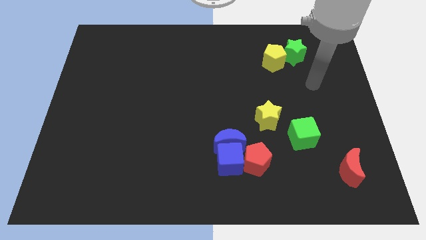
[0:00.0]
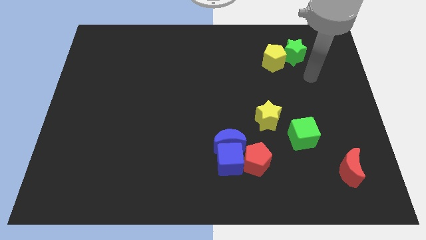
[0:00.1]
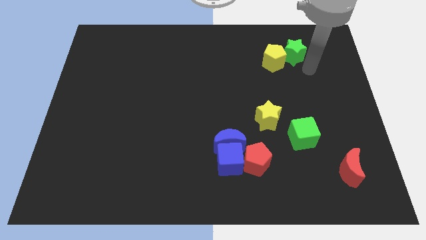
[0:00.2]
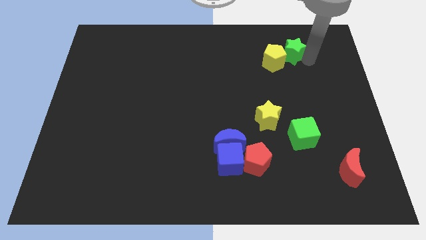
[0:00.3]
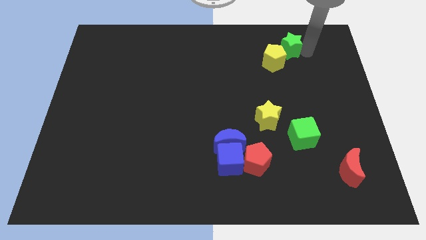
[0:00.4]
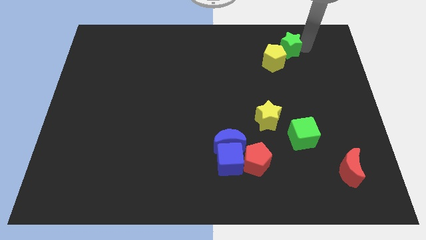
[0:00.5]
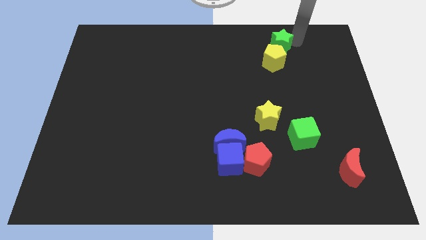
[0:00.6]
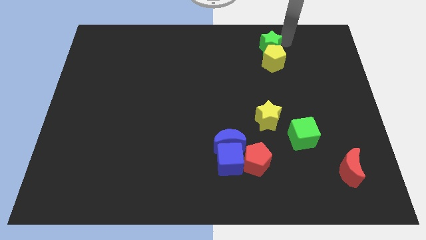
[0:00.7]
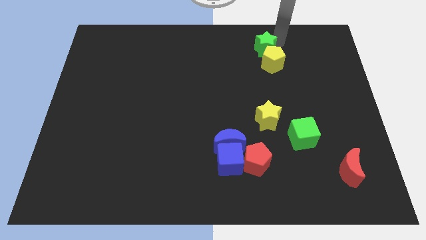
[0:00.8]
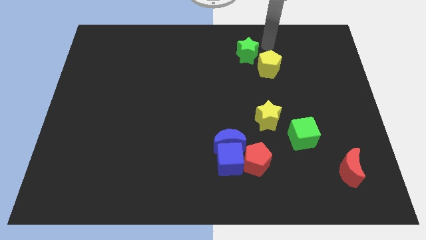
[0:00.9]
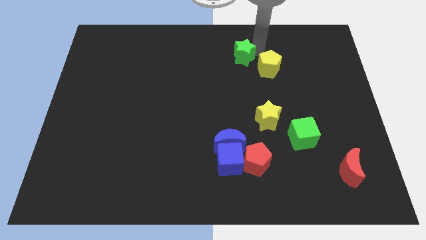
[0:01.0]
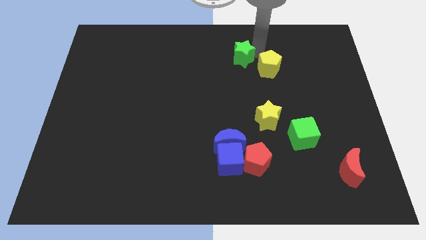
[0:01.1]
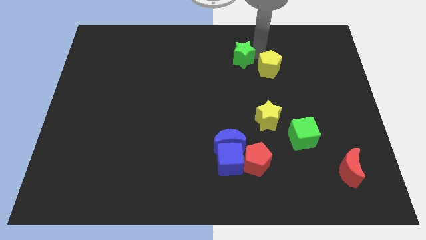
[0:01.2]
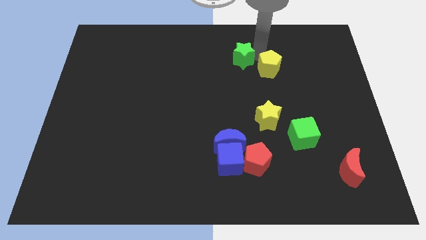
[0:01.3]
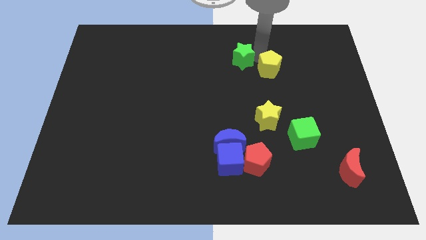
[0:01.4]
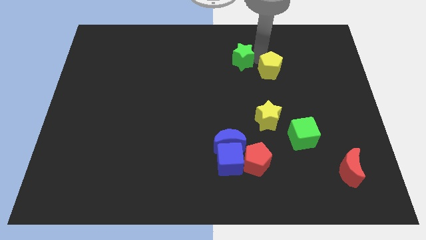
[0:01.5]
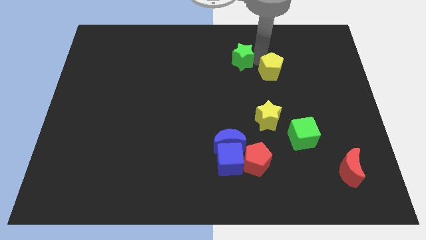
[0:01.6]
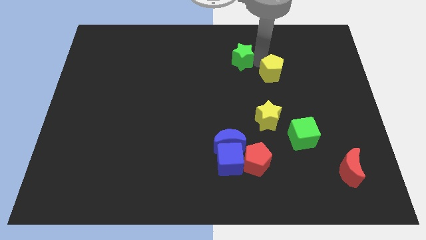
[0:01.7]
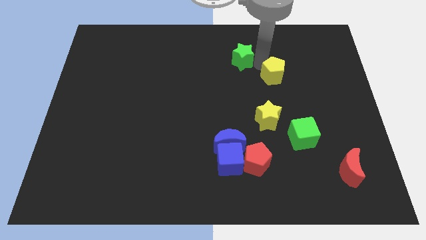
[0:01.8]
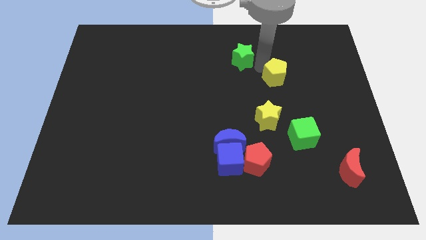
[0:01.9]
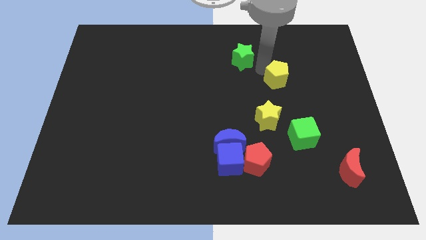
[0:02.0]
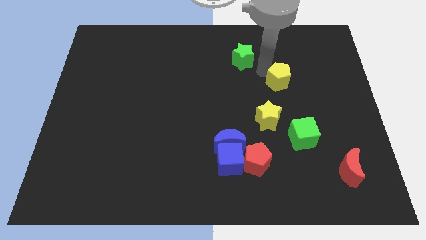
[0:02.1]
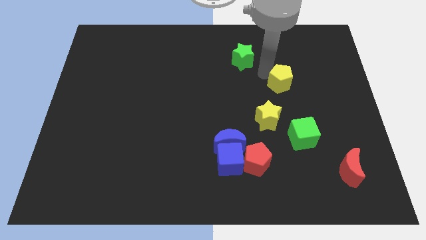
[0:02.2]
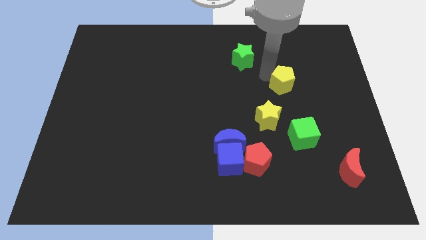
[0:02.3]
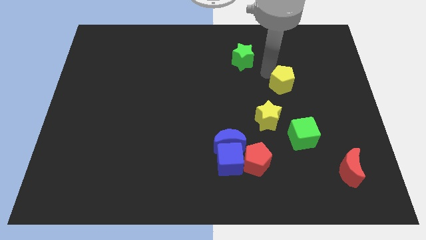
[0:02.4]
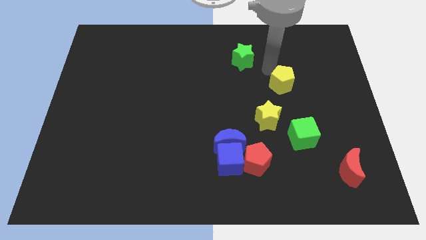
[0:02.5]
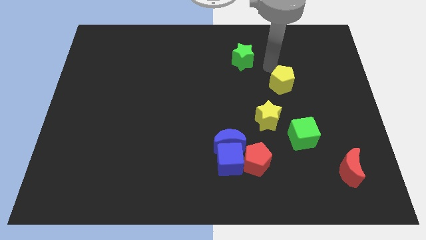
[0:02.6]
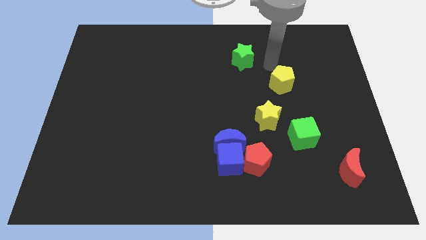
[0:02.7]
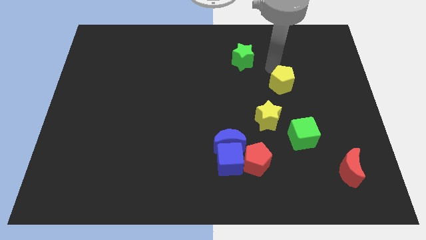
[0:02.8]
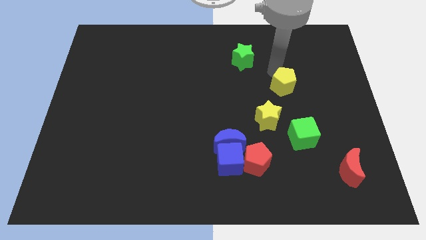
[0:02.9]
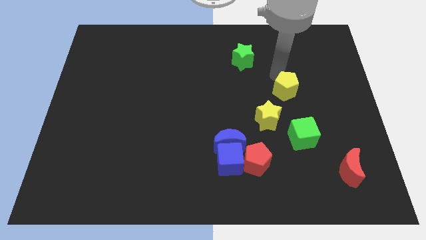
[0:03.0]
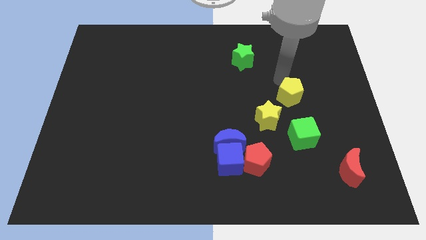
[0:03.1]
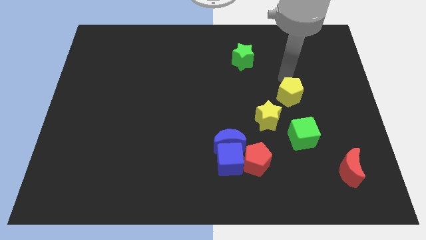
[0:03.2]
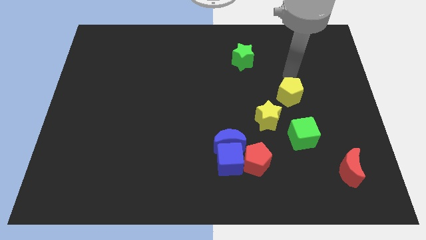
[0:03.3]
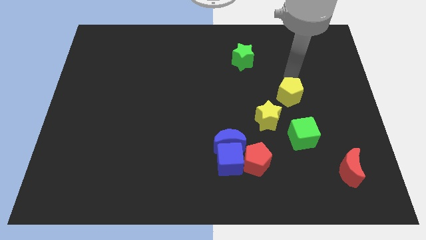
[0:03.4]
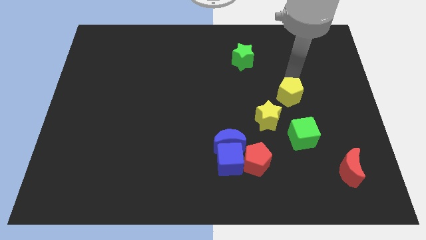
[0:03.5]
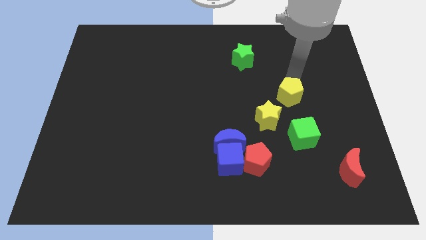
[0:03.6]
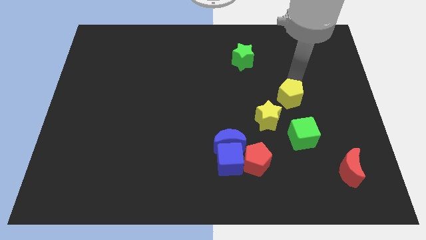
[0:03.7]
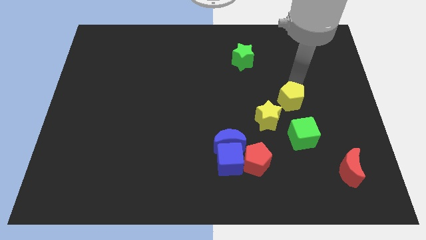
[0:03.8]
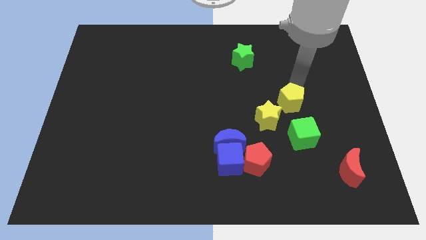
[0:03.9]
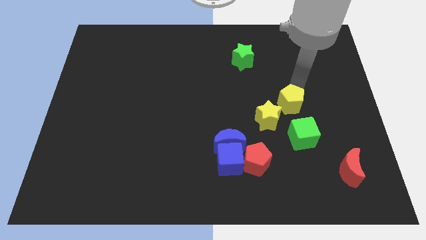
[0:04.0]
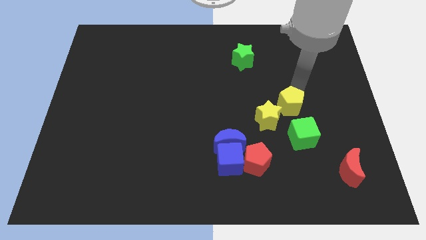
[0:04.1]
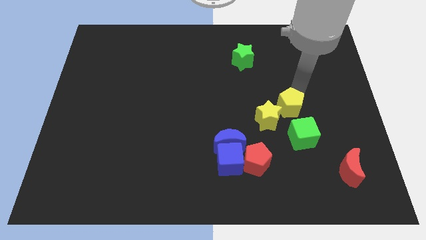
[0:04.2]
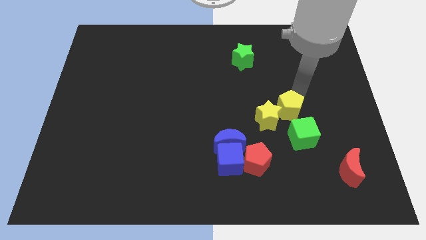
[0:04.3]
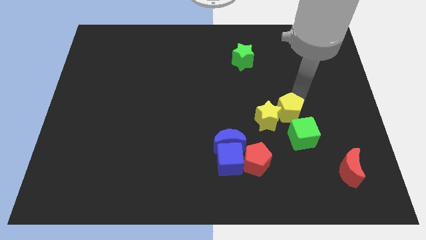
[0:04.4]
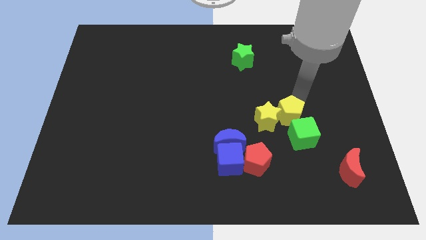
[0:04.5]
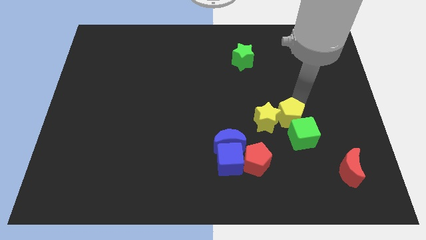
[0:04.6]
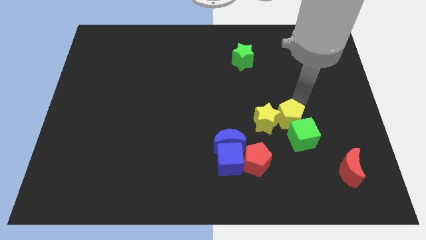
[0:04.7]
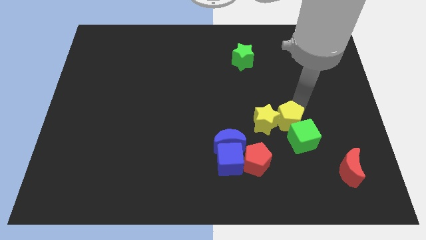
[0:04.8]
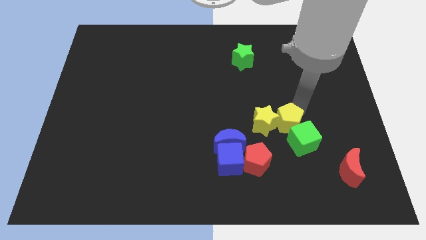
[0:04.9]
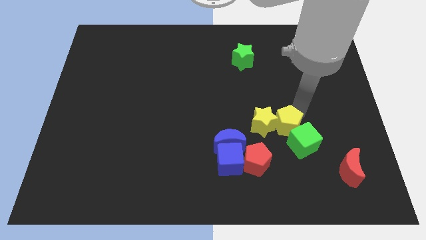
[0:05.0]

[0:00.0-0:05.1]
slide the yellow pentagon down

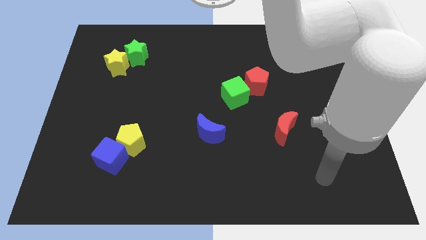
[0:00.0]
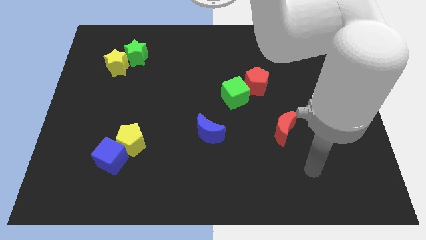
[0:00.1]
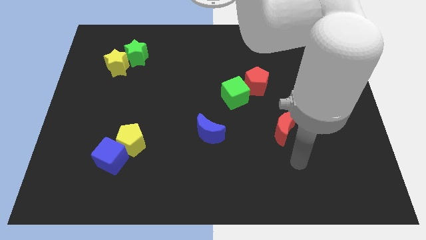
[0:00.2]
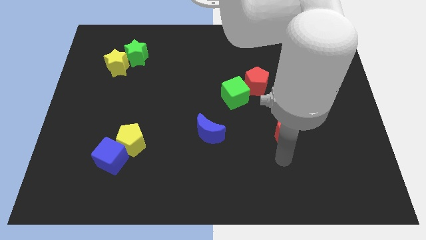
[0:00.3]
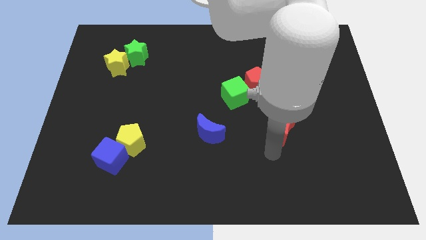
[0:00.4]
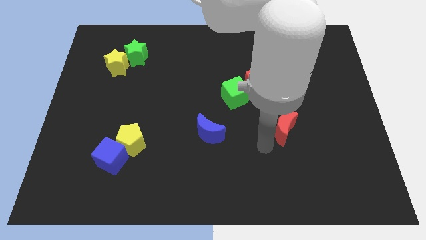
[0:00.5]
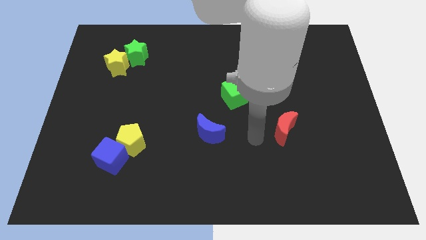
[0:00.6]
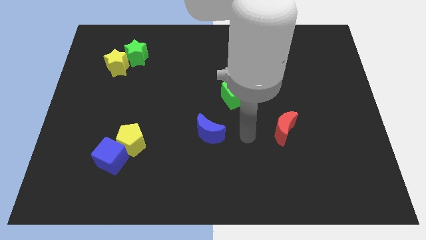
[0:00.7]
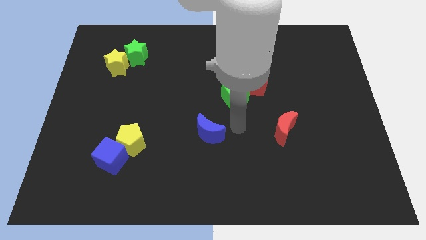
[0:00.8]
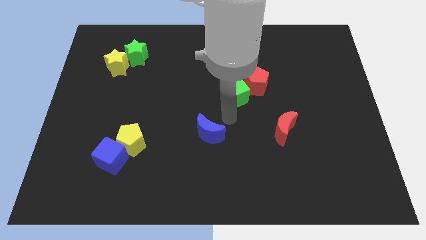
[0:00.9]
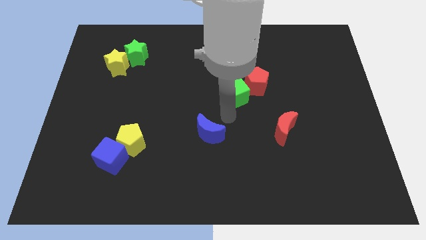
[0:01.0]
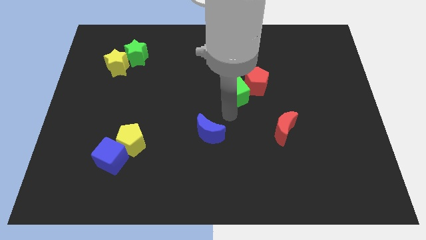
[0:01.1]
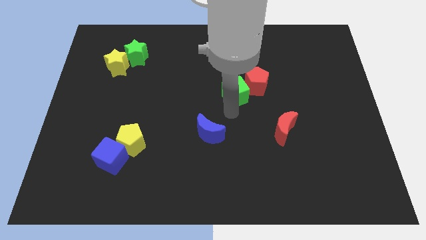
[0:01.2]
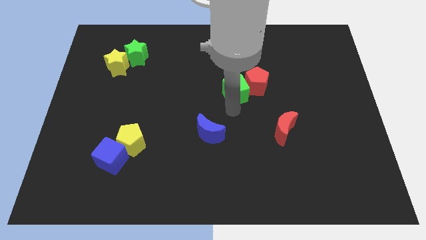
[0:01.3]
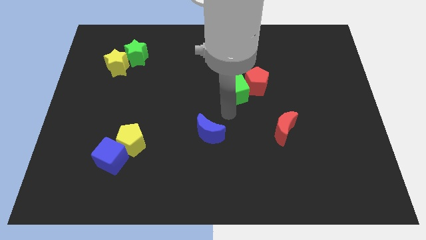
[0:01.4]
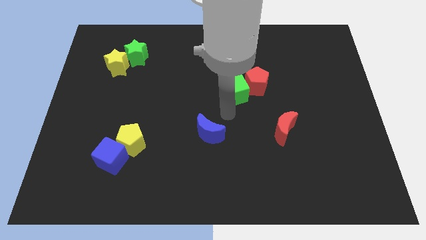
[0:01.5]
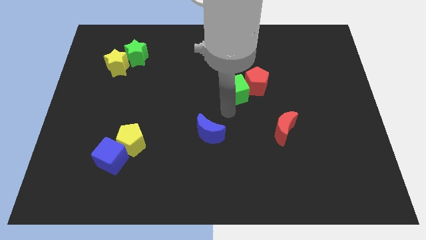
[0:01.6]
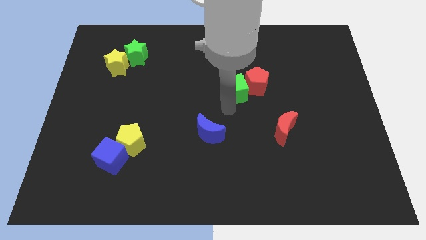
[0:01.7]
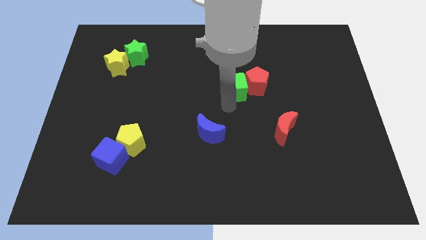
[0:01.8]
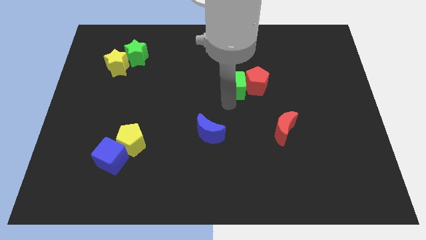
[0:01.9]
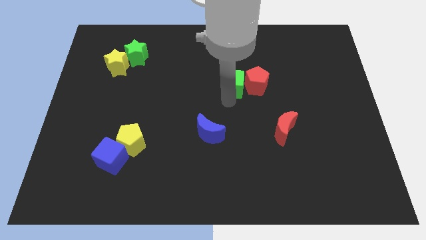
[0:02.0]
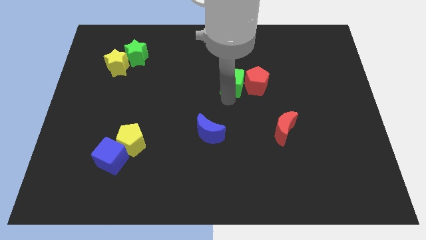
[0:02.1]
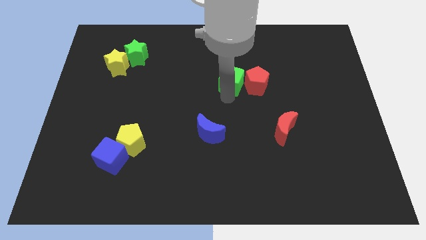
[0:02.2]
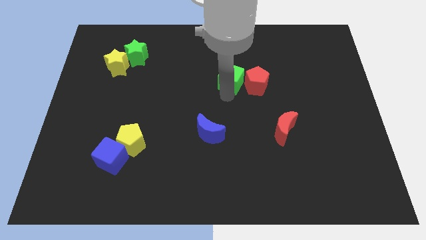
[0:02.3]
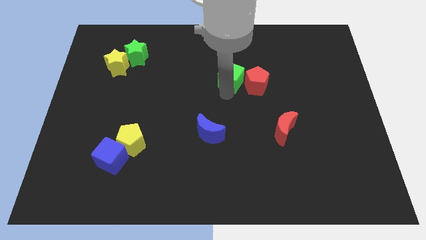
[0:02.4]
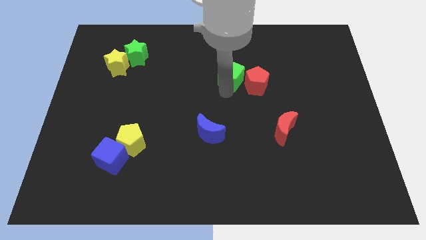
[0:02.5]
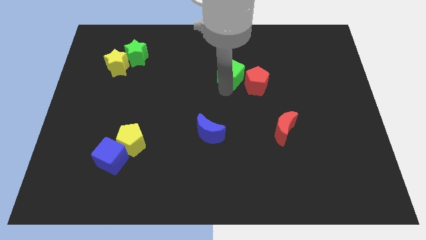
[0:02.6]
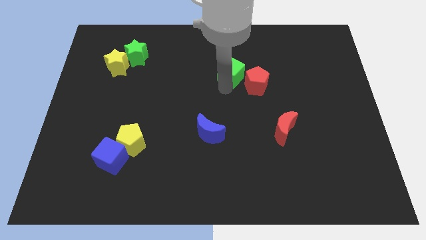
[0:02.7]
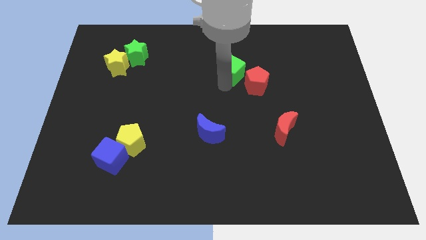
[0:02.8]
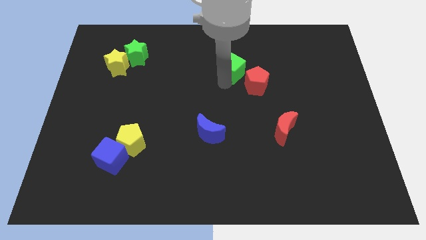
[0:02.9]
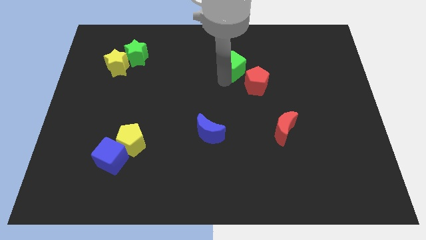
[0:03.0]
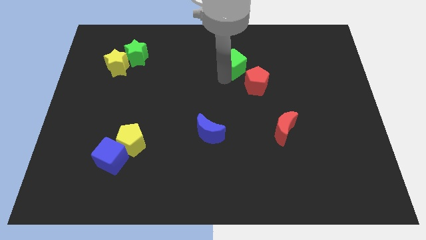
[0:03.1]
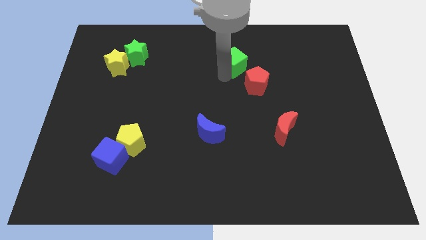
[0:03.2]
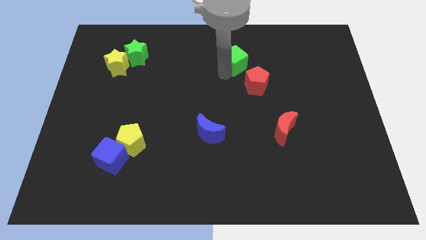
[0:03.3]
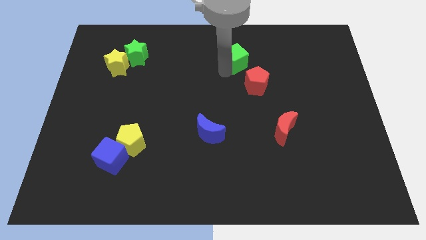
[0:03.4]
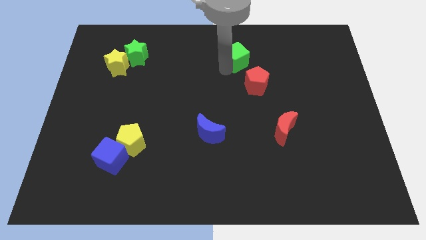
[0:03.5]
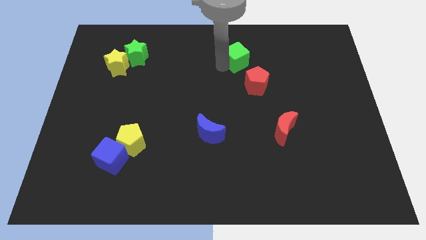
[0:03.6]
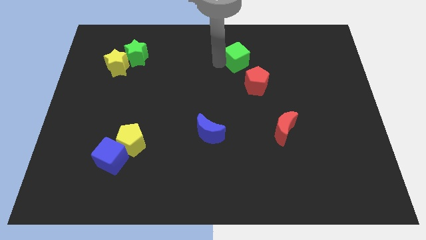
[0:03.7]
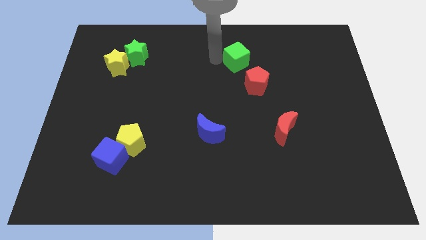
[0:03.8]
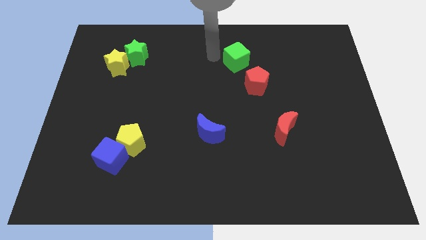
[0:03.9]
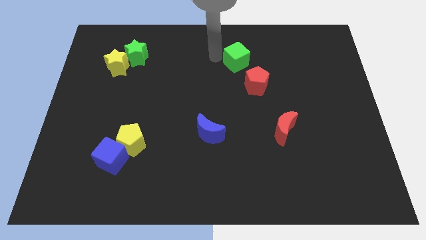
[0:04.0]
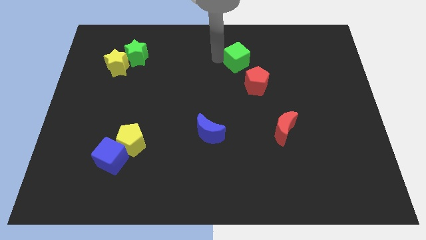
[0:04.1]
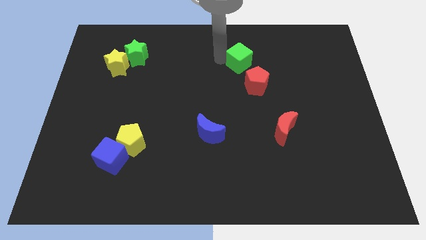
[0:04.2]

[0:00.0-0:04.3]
push the green cube up and to the right diagonally a little bit
